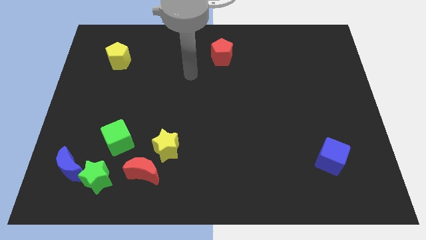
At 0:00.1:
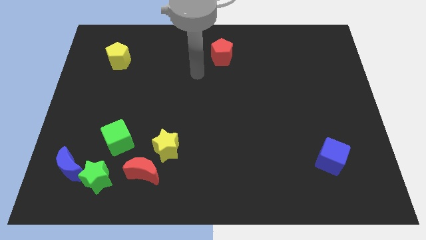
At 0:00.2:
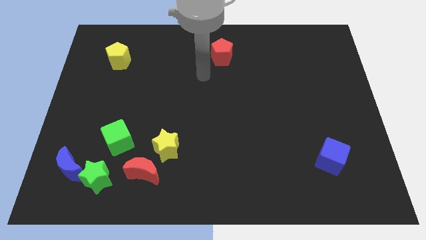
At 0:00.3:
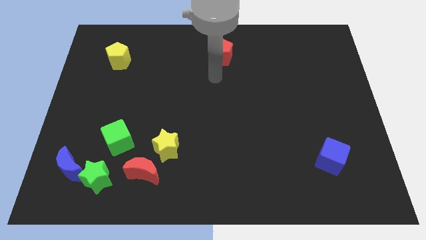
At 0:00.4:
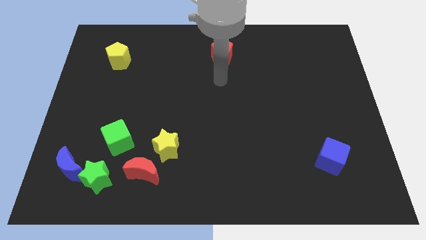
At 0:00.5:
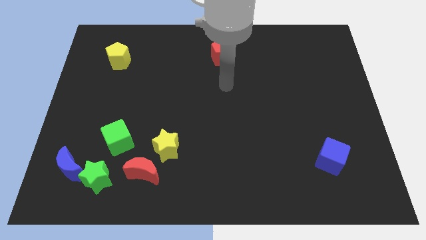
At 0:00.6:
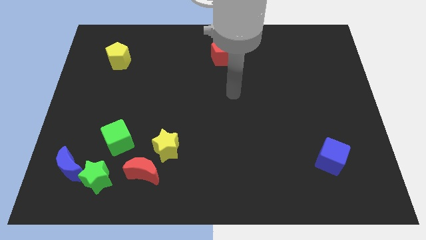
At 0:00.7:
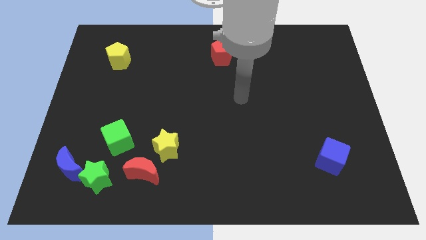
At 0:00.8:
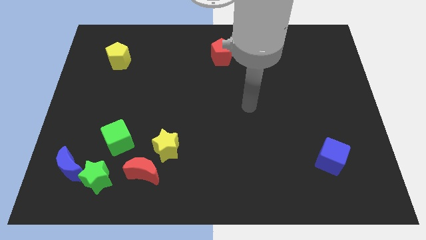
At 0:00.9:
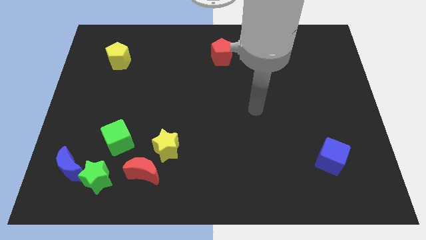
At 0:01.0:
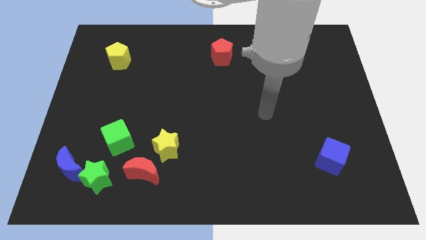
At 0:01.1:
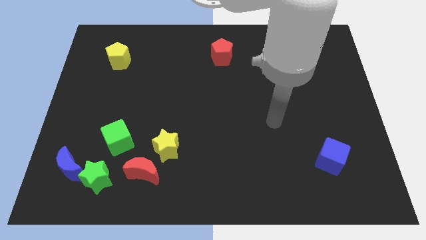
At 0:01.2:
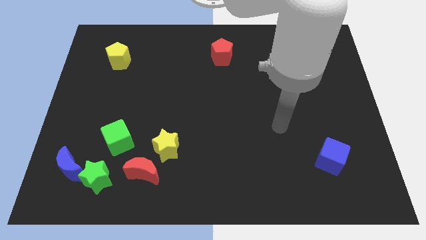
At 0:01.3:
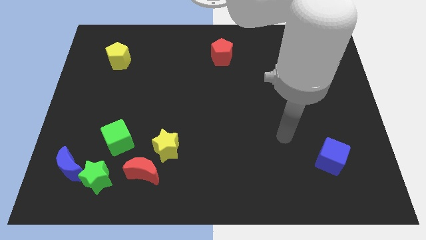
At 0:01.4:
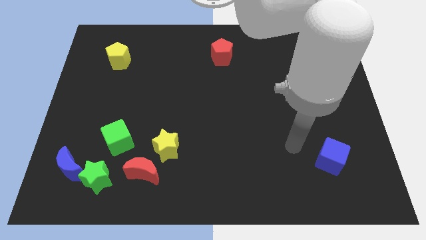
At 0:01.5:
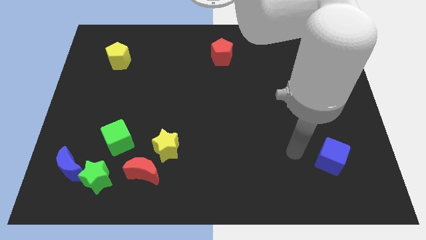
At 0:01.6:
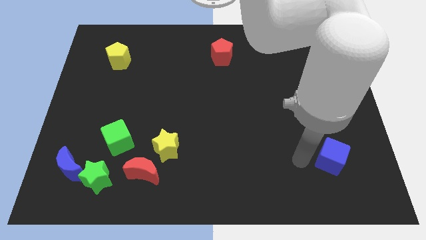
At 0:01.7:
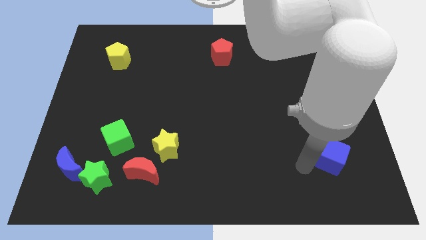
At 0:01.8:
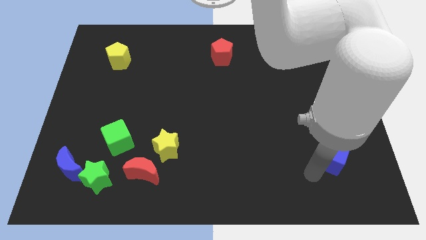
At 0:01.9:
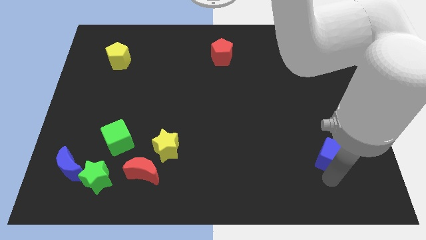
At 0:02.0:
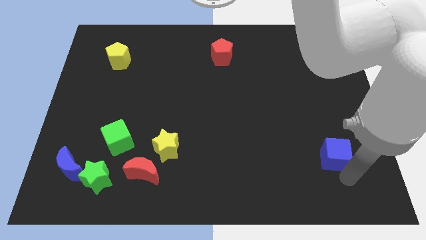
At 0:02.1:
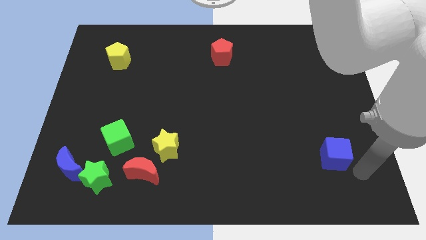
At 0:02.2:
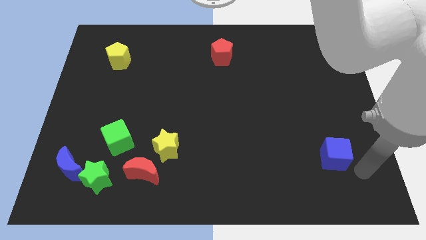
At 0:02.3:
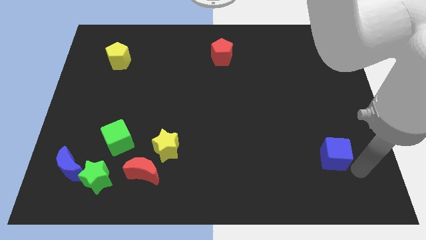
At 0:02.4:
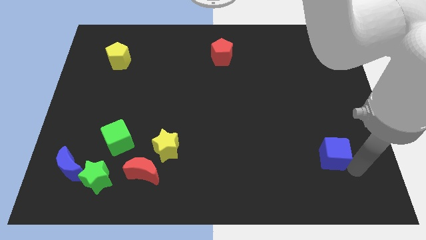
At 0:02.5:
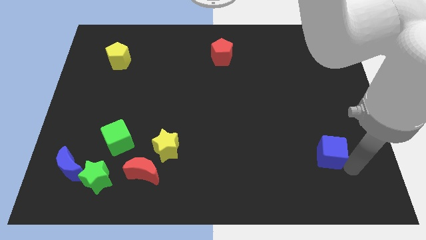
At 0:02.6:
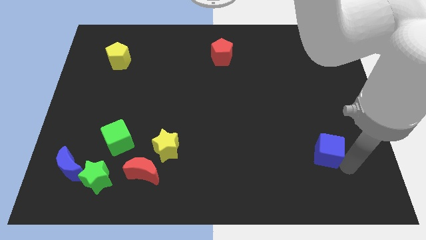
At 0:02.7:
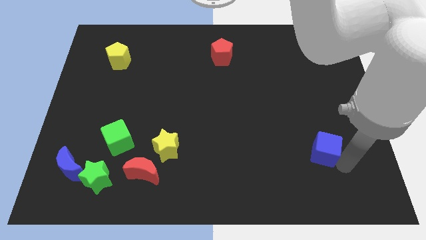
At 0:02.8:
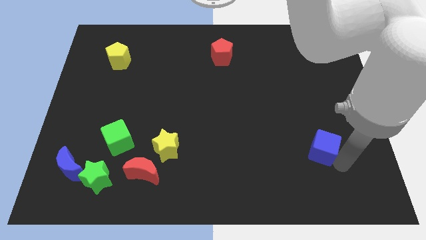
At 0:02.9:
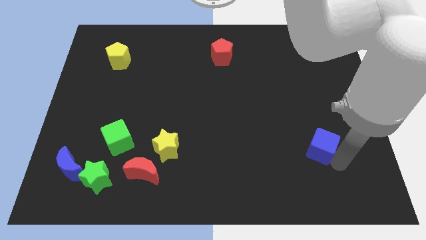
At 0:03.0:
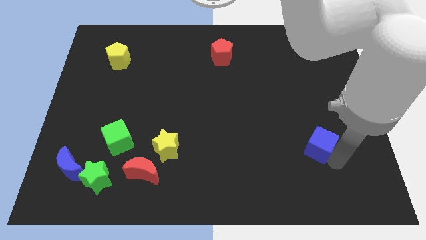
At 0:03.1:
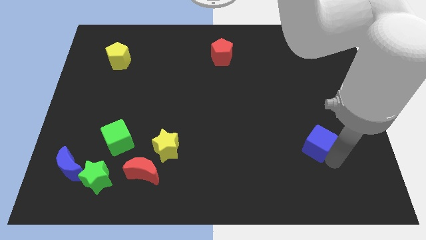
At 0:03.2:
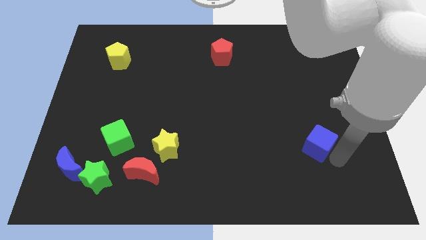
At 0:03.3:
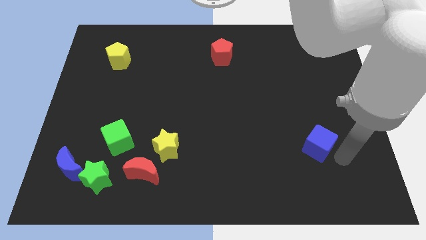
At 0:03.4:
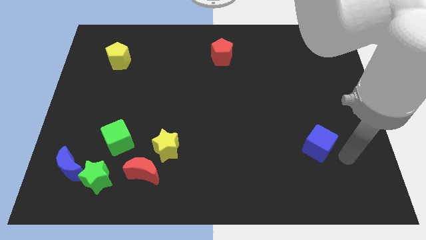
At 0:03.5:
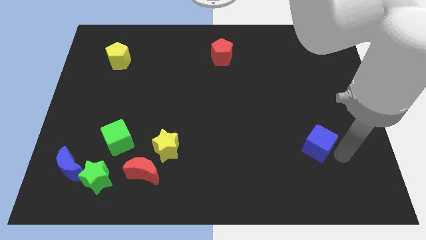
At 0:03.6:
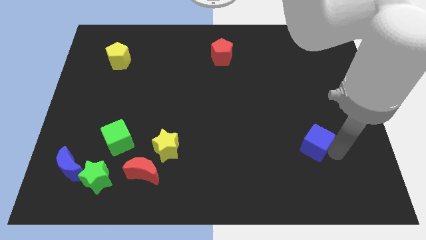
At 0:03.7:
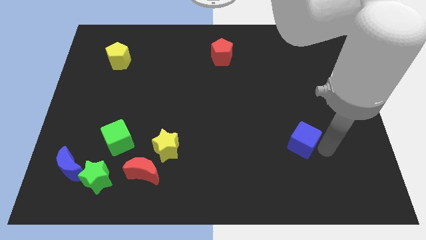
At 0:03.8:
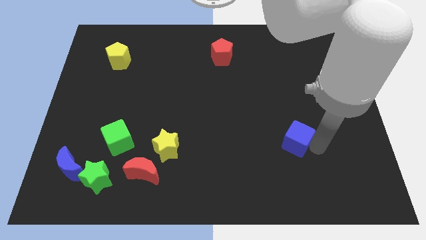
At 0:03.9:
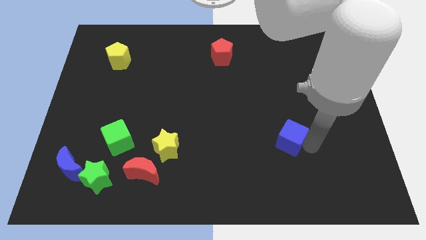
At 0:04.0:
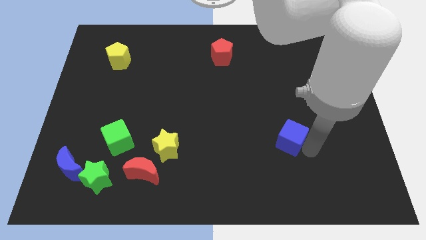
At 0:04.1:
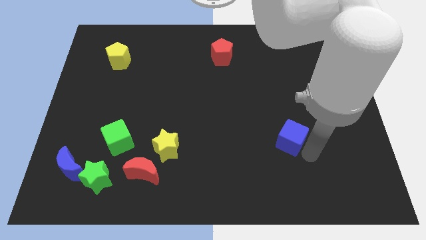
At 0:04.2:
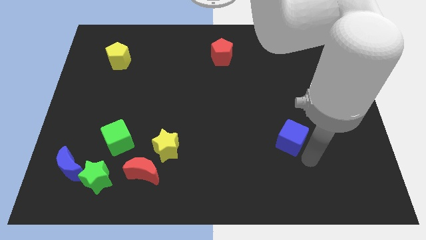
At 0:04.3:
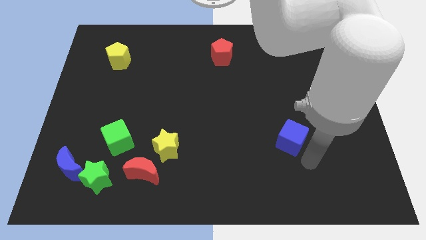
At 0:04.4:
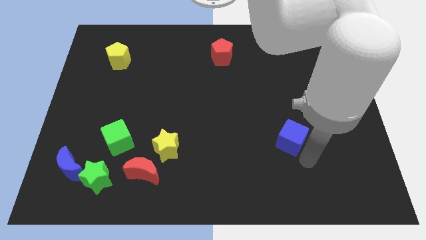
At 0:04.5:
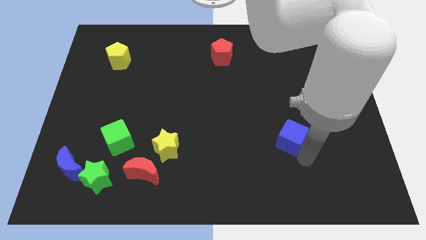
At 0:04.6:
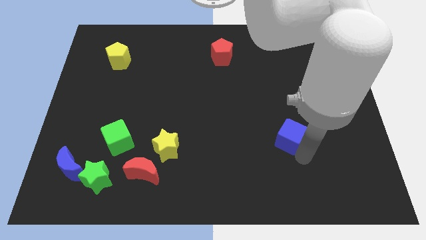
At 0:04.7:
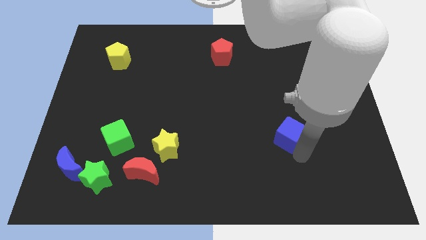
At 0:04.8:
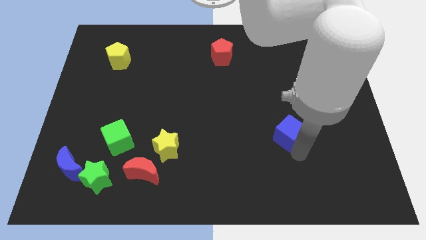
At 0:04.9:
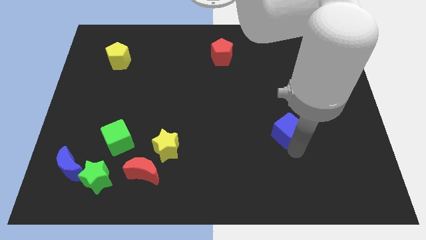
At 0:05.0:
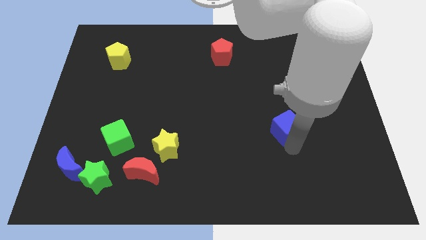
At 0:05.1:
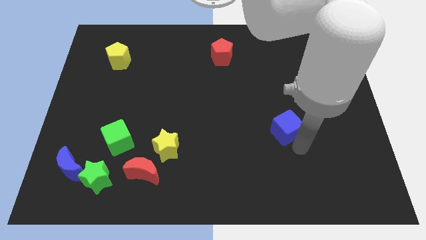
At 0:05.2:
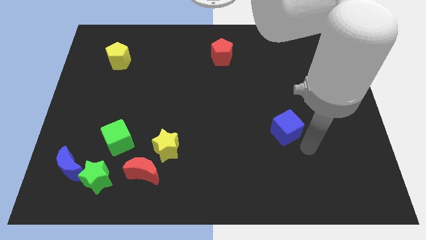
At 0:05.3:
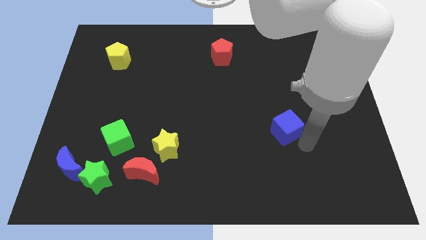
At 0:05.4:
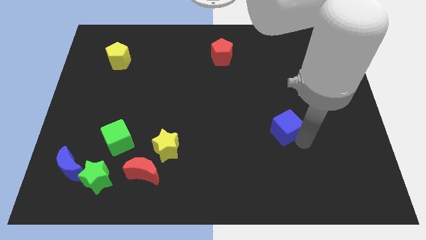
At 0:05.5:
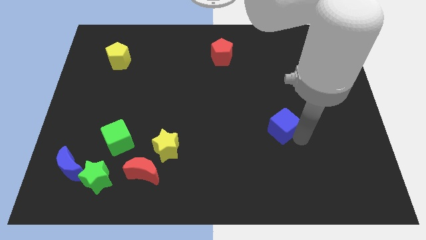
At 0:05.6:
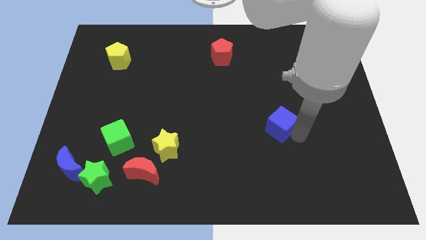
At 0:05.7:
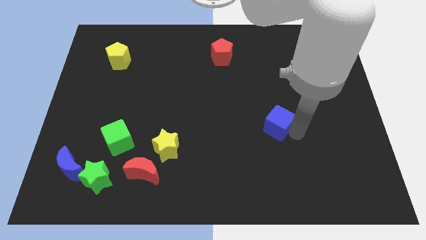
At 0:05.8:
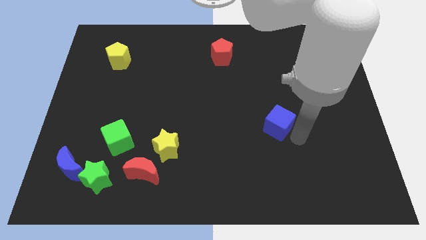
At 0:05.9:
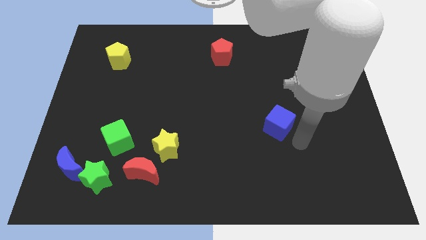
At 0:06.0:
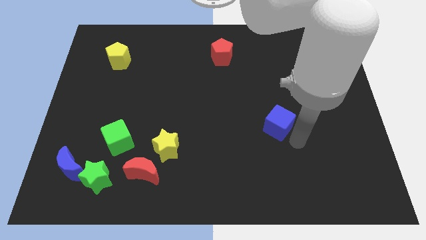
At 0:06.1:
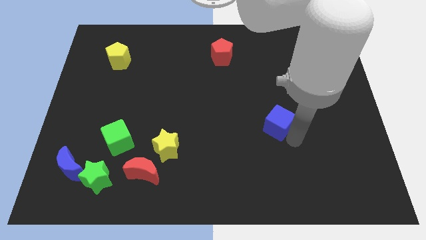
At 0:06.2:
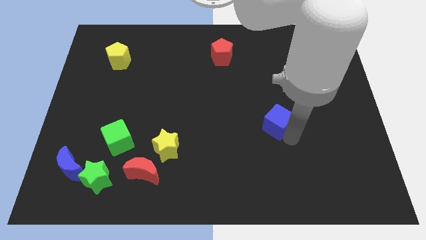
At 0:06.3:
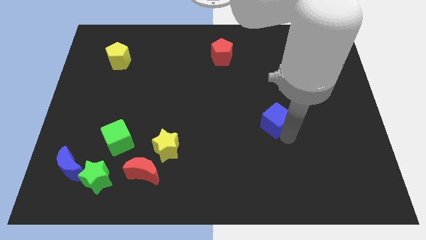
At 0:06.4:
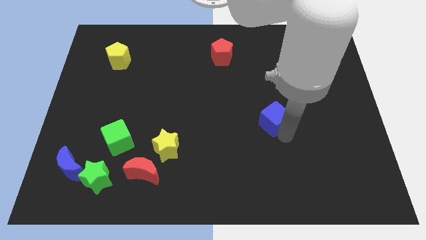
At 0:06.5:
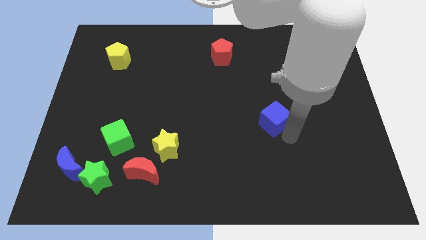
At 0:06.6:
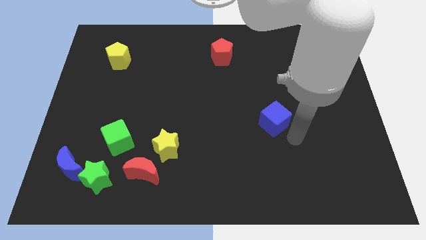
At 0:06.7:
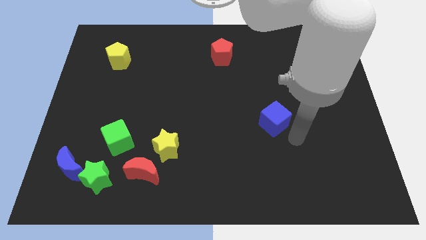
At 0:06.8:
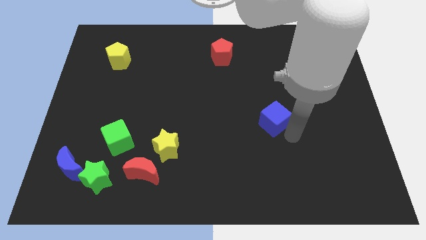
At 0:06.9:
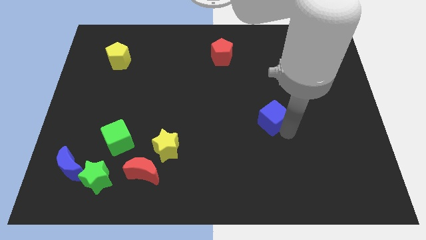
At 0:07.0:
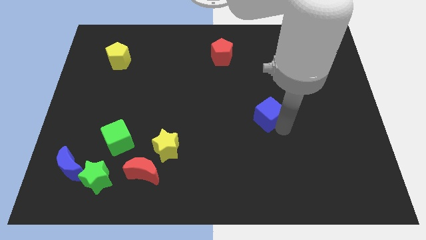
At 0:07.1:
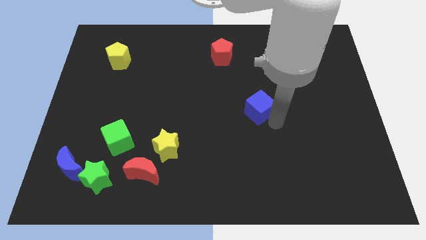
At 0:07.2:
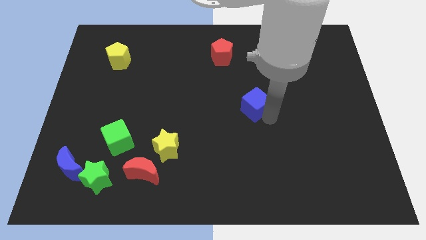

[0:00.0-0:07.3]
push the blue cube up and then to the left

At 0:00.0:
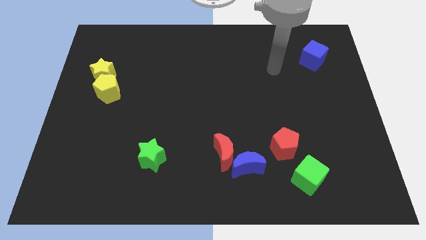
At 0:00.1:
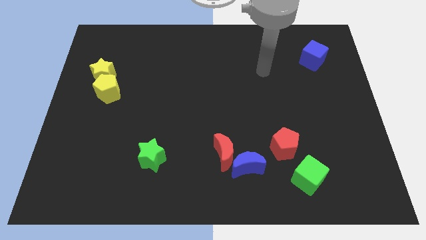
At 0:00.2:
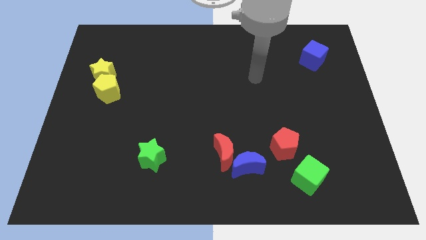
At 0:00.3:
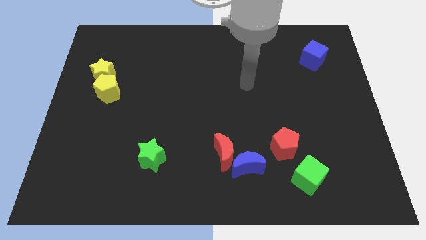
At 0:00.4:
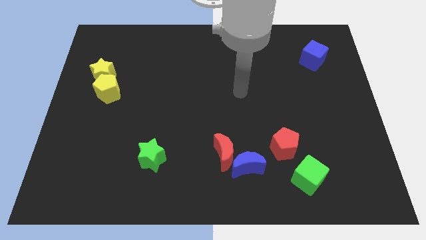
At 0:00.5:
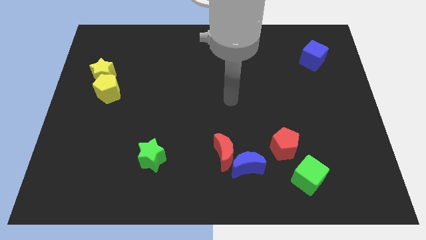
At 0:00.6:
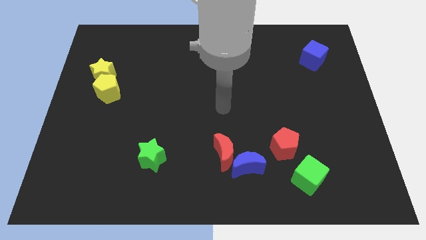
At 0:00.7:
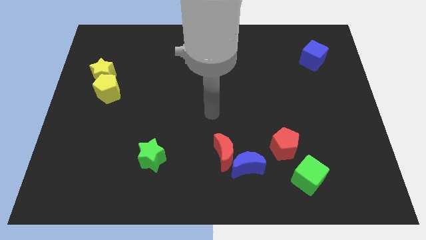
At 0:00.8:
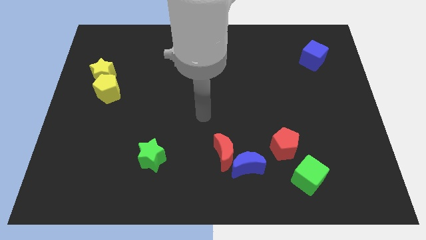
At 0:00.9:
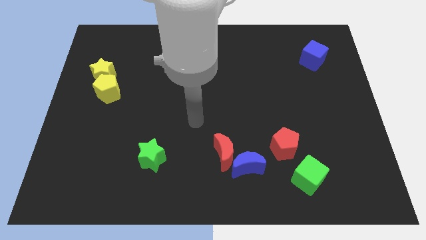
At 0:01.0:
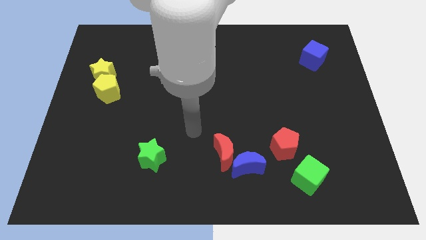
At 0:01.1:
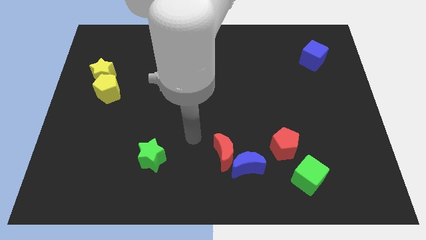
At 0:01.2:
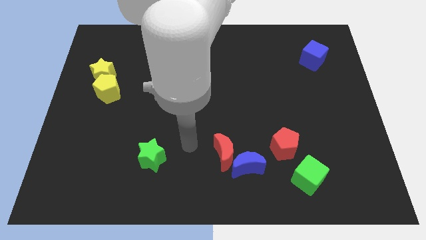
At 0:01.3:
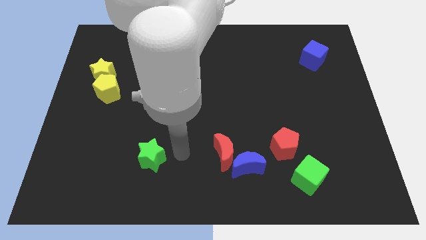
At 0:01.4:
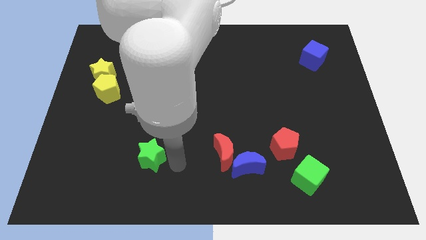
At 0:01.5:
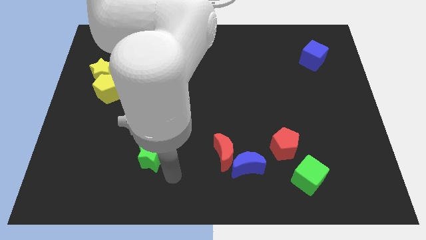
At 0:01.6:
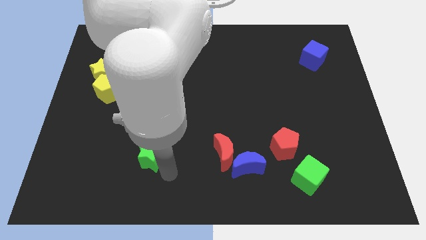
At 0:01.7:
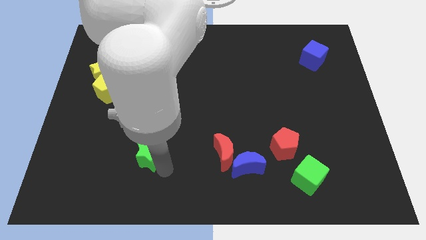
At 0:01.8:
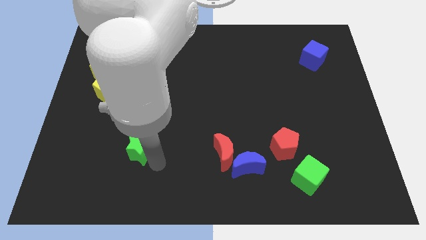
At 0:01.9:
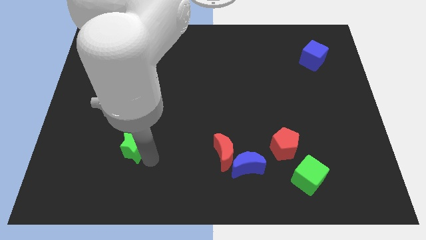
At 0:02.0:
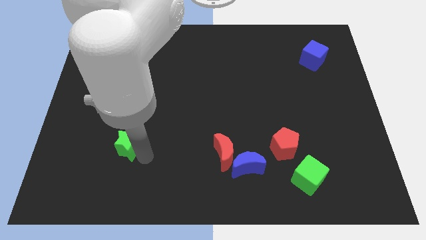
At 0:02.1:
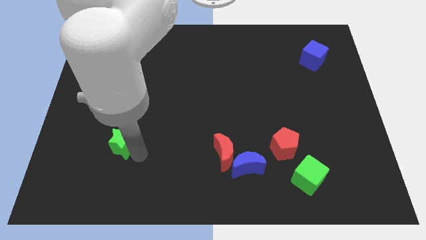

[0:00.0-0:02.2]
push the green star slightly up and left
